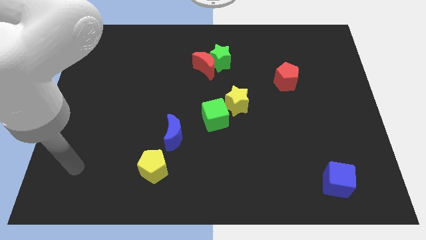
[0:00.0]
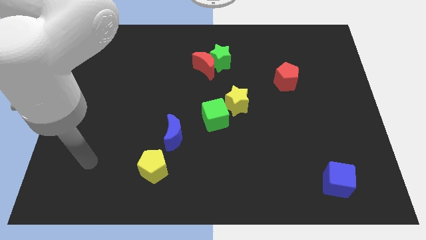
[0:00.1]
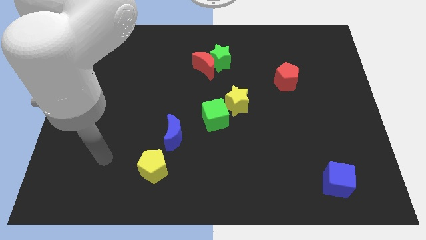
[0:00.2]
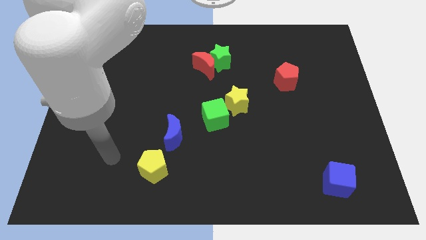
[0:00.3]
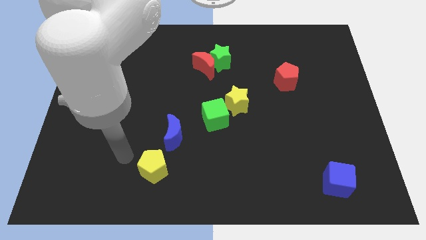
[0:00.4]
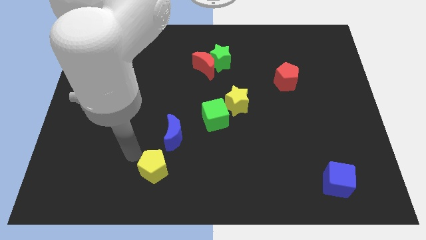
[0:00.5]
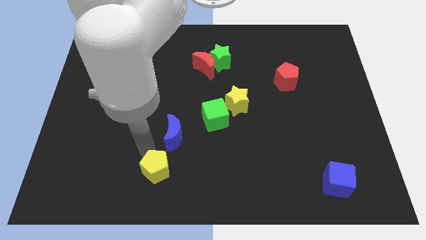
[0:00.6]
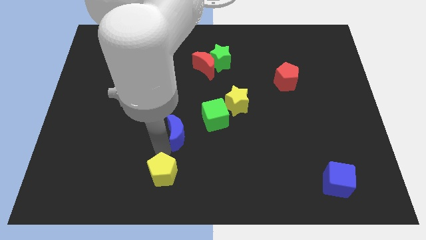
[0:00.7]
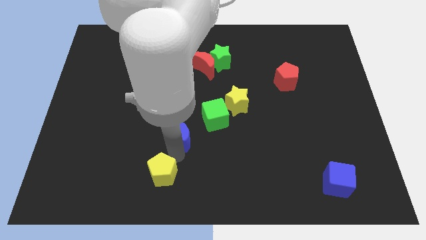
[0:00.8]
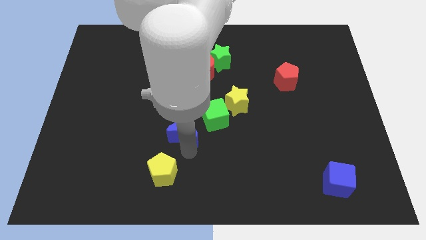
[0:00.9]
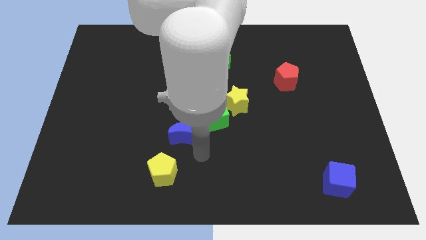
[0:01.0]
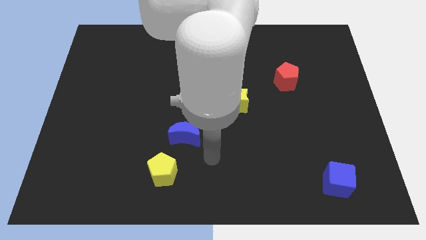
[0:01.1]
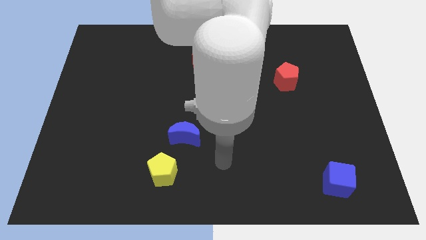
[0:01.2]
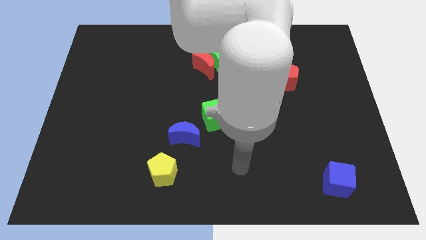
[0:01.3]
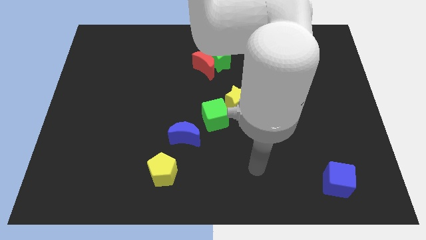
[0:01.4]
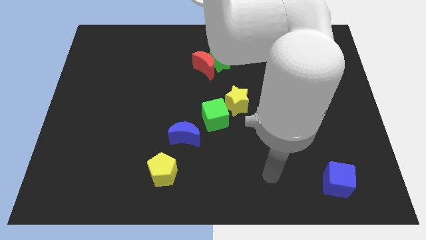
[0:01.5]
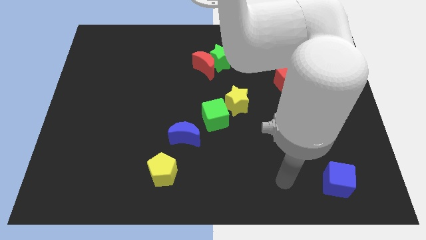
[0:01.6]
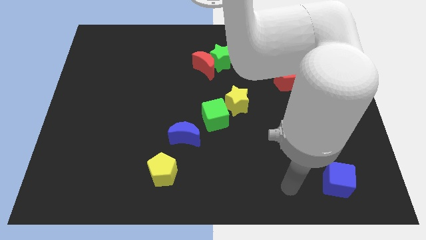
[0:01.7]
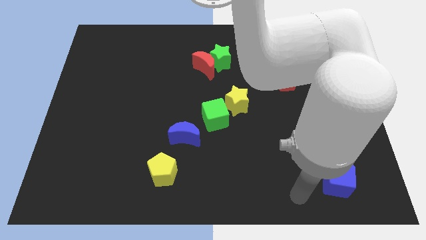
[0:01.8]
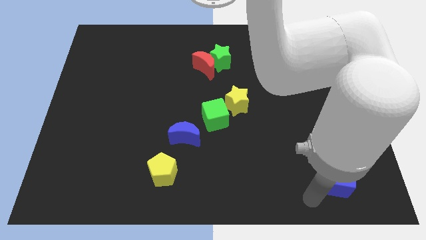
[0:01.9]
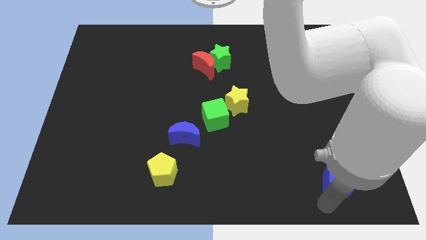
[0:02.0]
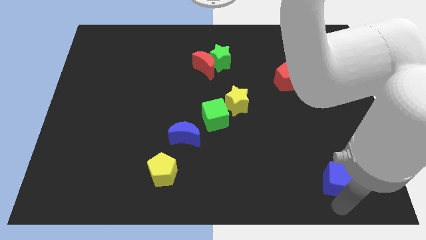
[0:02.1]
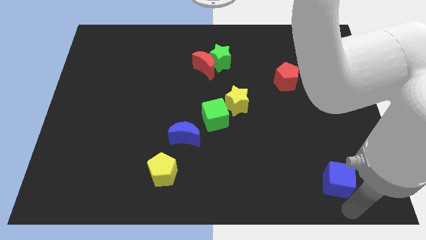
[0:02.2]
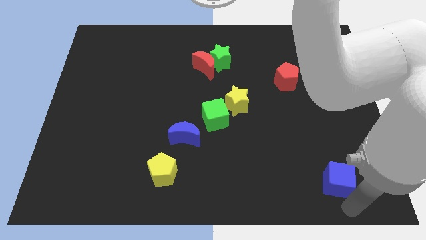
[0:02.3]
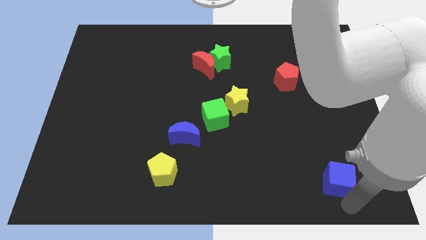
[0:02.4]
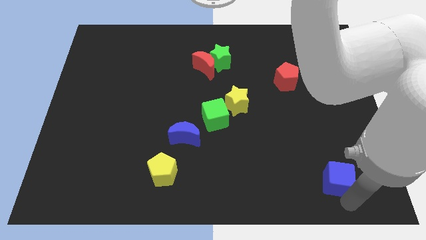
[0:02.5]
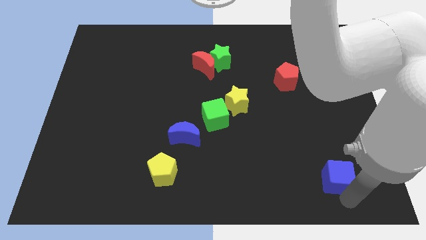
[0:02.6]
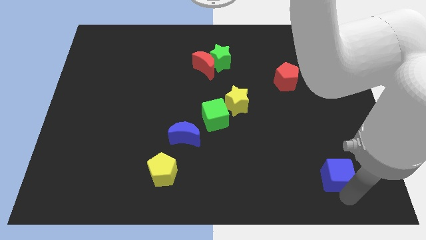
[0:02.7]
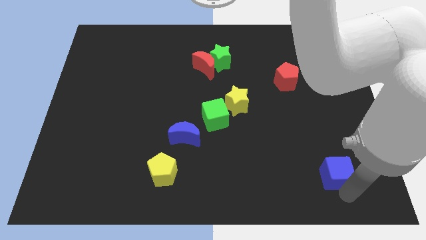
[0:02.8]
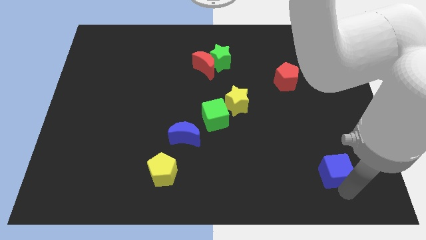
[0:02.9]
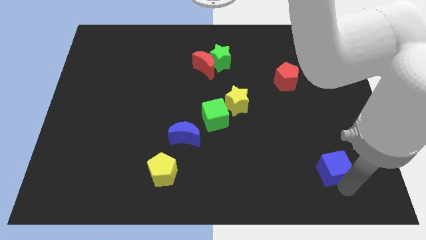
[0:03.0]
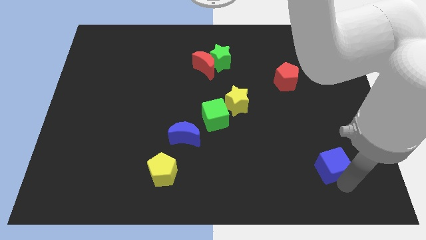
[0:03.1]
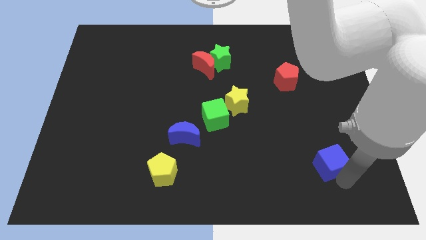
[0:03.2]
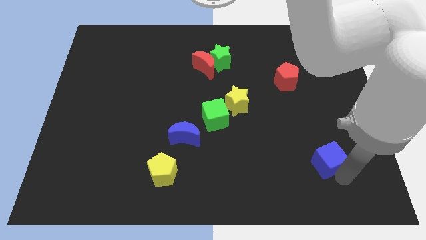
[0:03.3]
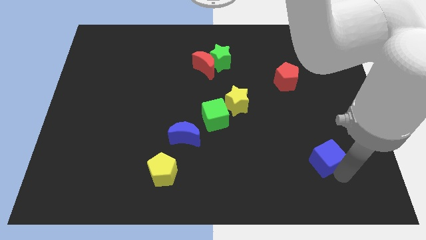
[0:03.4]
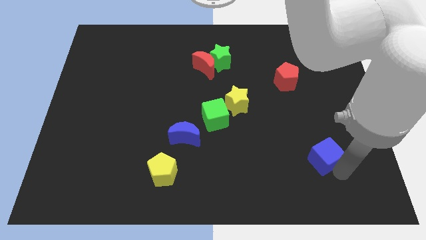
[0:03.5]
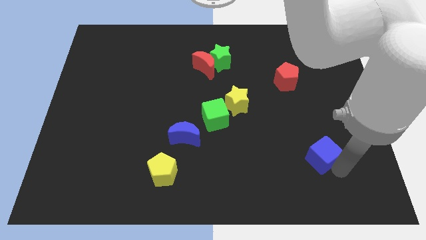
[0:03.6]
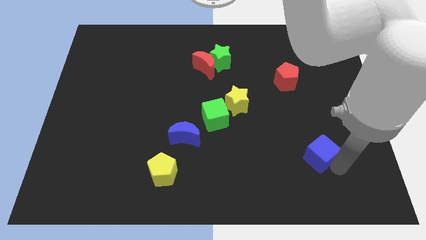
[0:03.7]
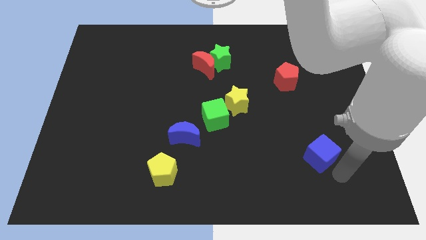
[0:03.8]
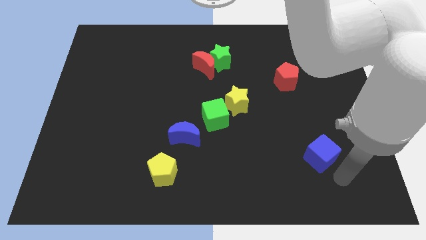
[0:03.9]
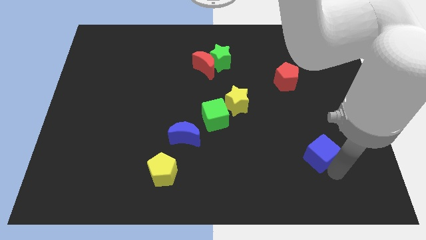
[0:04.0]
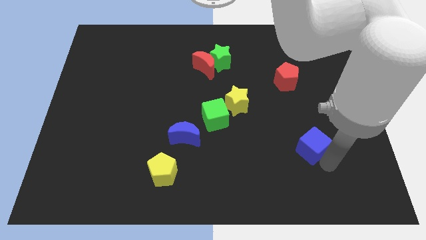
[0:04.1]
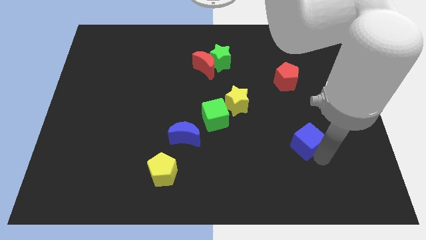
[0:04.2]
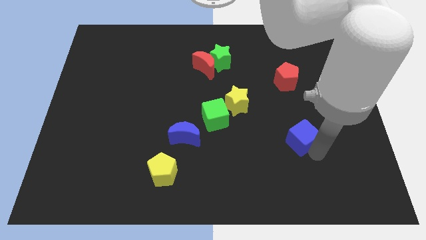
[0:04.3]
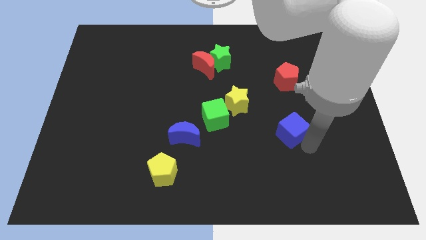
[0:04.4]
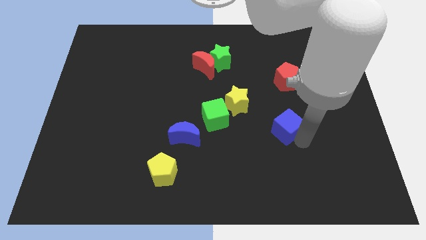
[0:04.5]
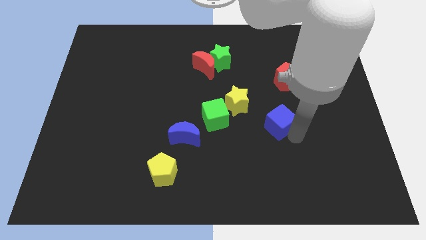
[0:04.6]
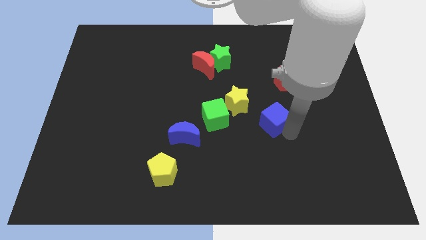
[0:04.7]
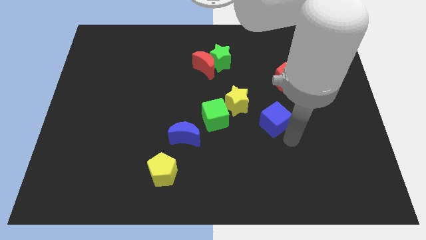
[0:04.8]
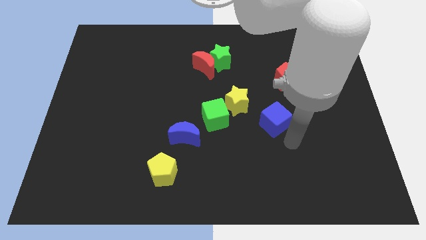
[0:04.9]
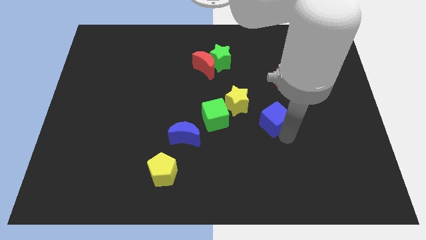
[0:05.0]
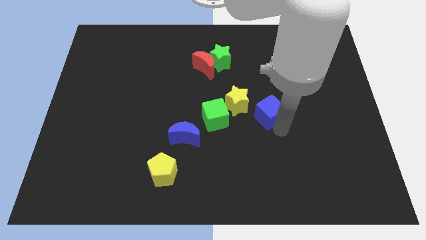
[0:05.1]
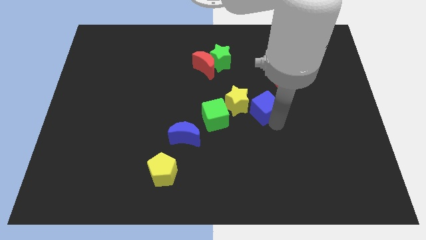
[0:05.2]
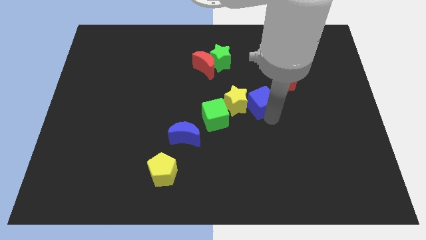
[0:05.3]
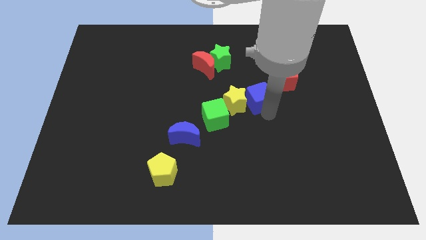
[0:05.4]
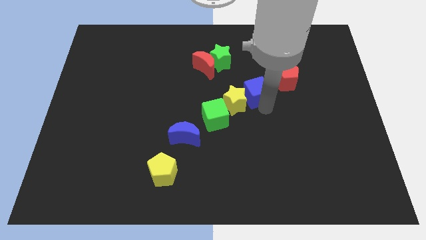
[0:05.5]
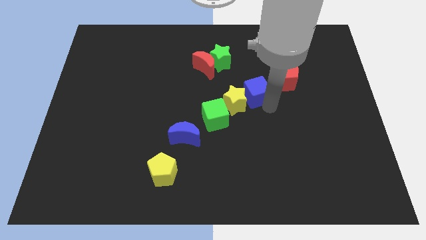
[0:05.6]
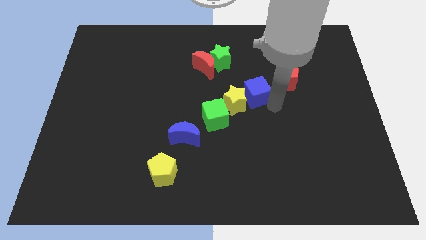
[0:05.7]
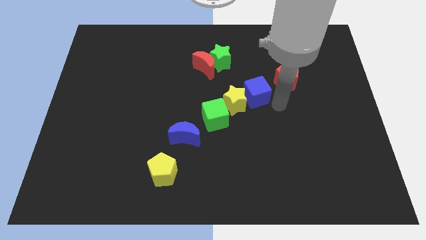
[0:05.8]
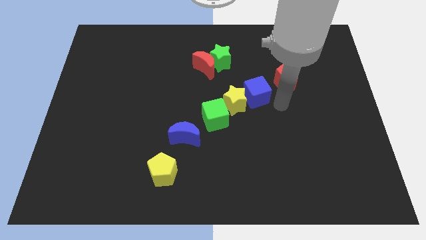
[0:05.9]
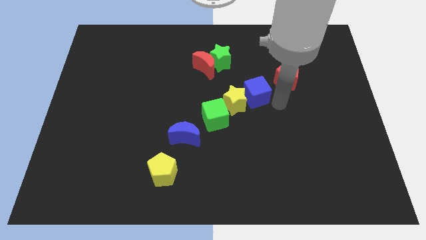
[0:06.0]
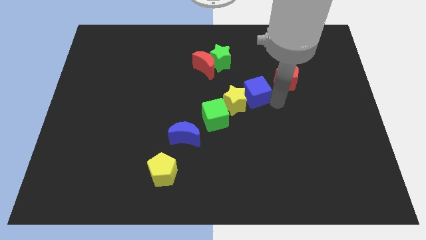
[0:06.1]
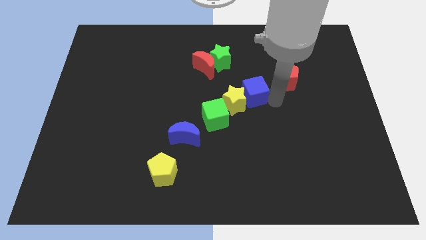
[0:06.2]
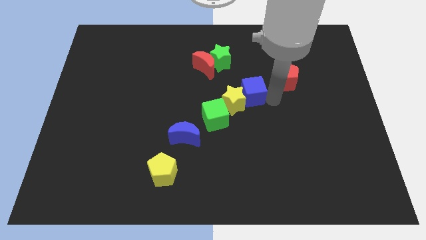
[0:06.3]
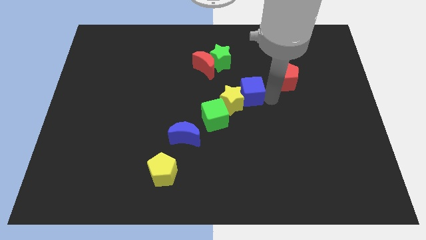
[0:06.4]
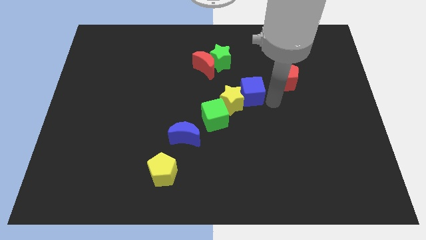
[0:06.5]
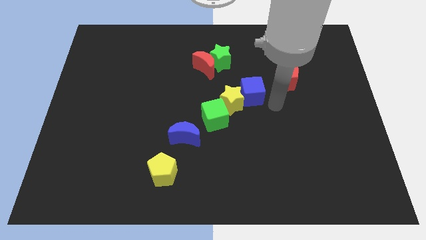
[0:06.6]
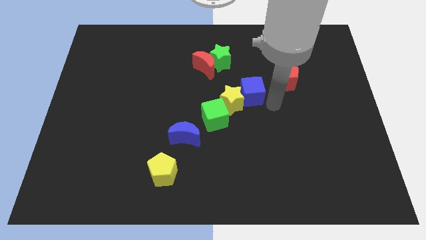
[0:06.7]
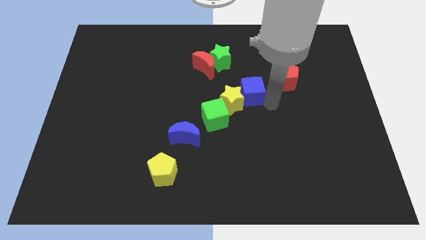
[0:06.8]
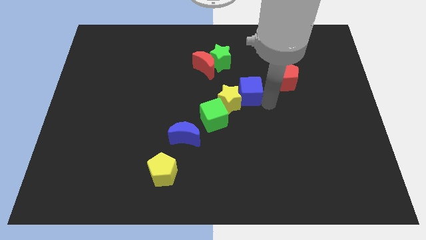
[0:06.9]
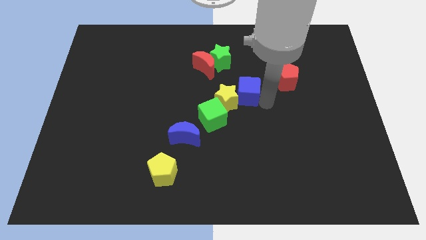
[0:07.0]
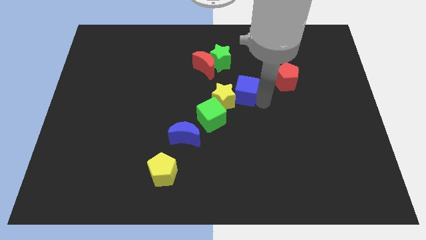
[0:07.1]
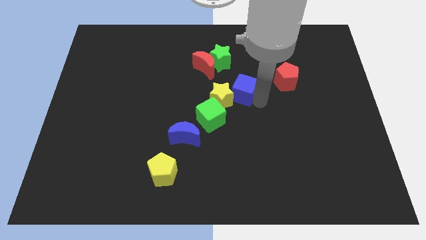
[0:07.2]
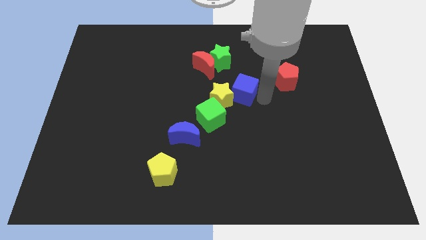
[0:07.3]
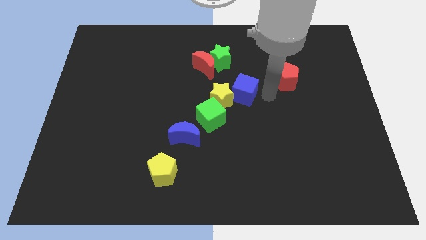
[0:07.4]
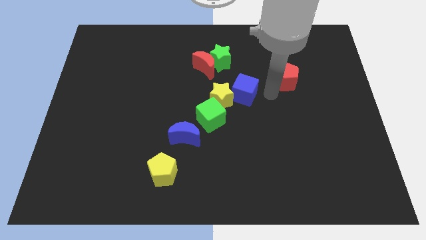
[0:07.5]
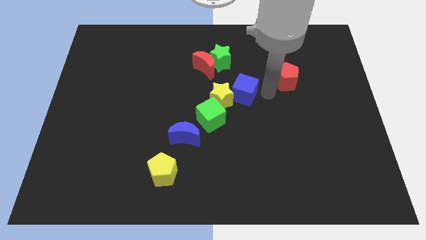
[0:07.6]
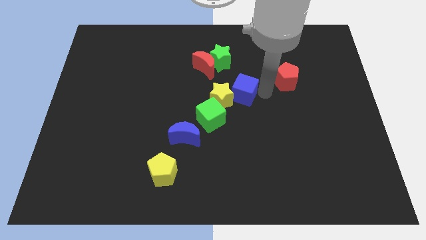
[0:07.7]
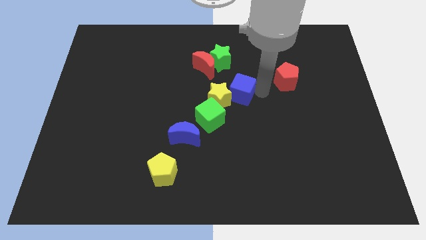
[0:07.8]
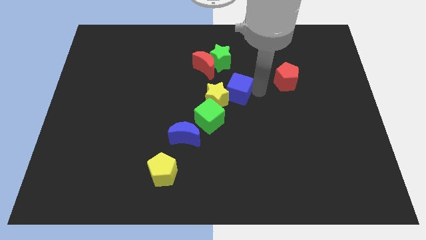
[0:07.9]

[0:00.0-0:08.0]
move the blue cube to the bottom side of the green star
